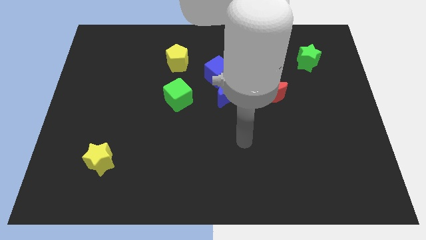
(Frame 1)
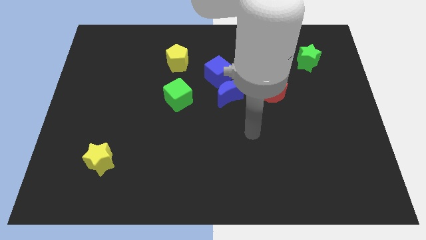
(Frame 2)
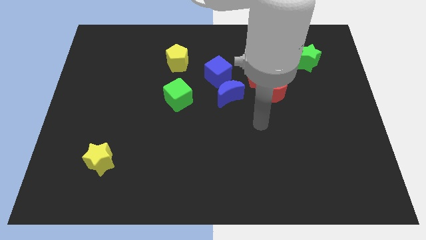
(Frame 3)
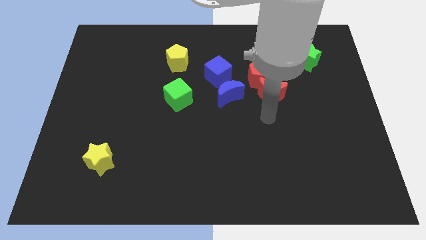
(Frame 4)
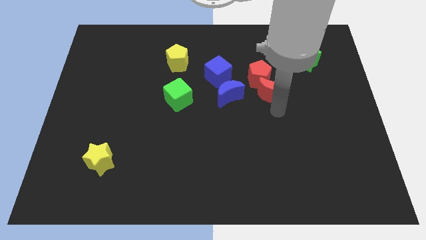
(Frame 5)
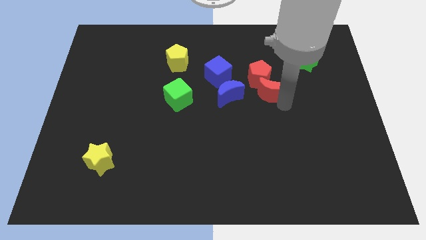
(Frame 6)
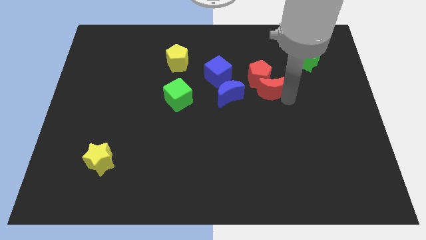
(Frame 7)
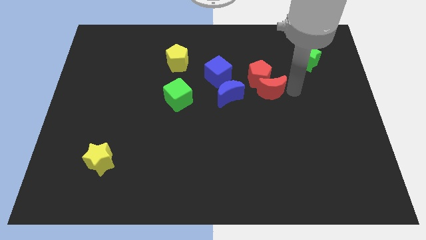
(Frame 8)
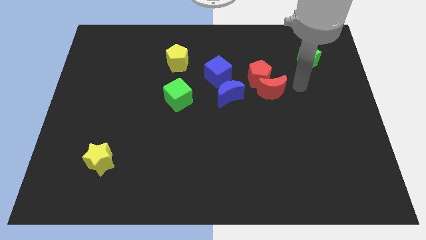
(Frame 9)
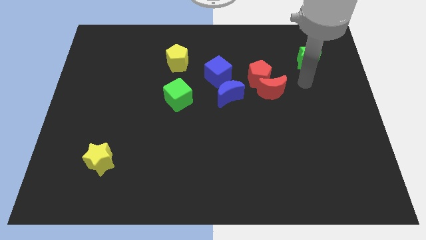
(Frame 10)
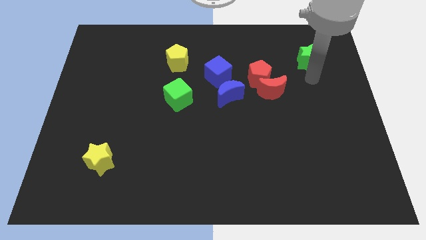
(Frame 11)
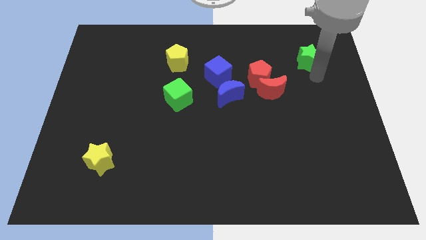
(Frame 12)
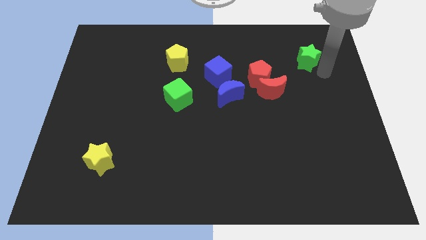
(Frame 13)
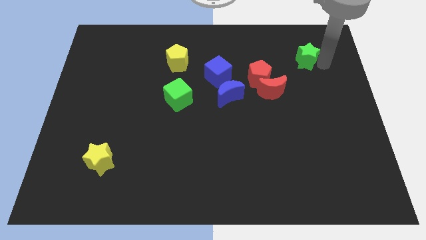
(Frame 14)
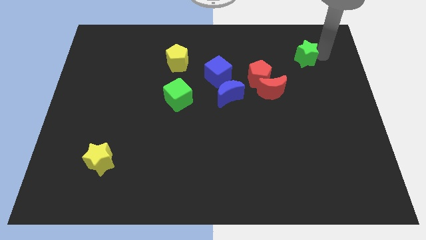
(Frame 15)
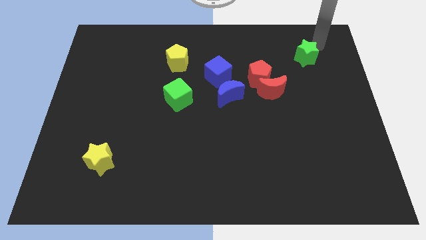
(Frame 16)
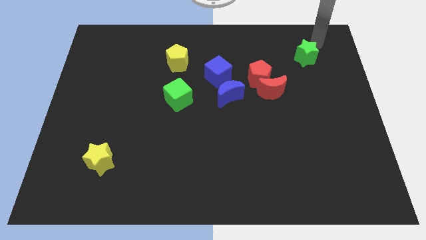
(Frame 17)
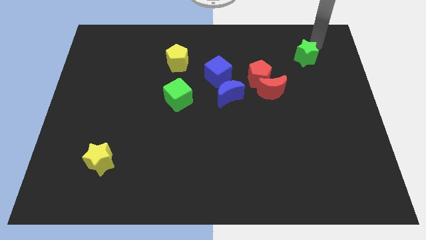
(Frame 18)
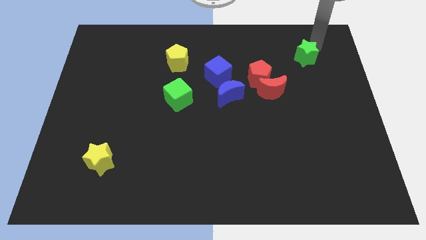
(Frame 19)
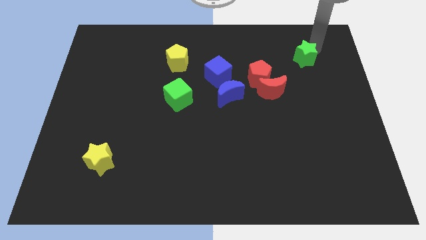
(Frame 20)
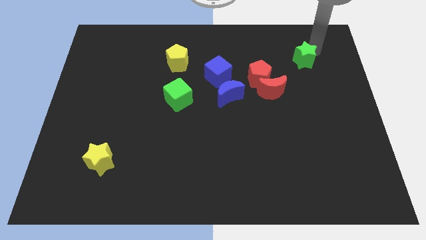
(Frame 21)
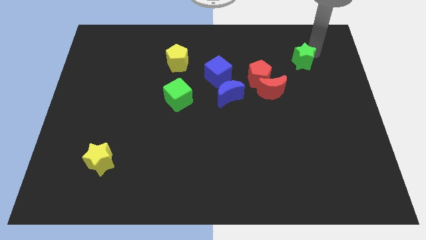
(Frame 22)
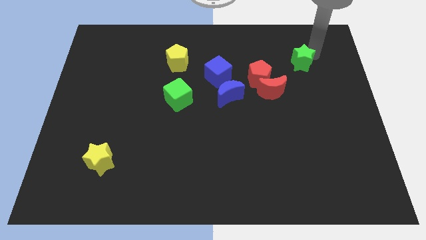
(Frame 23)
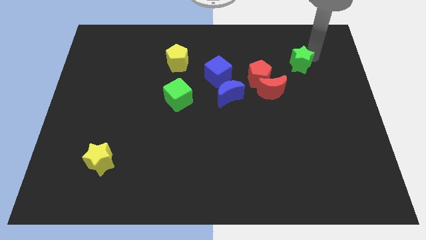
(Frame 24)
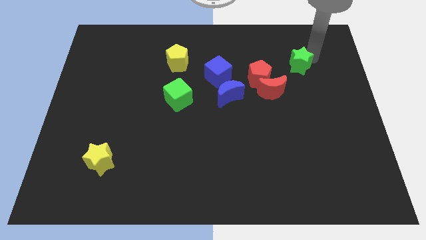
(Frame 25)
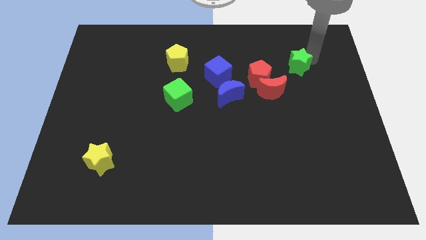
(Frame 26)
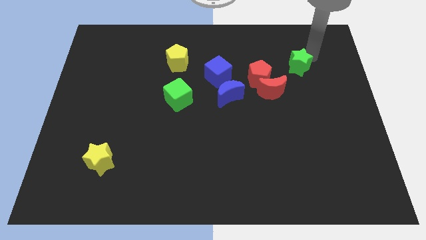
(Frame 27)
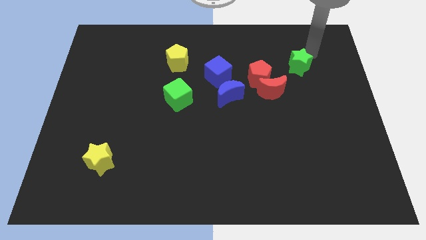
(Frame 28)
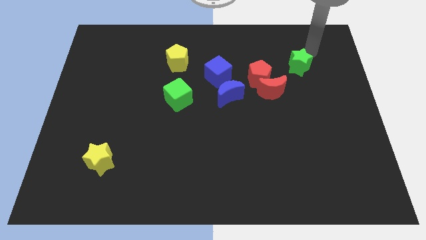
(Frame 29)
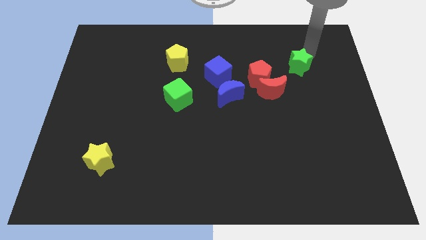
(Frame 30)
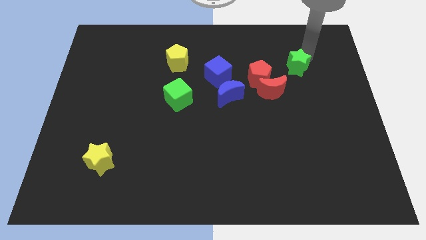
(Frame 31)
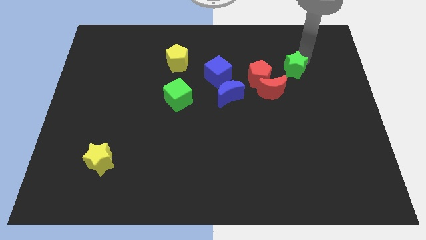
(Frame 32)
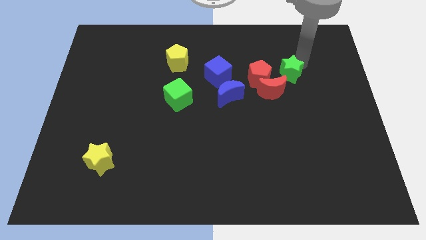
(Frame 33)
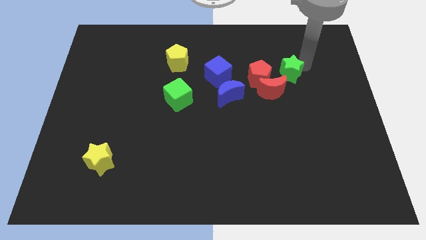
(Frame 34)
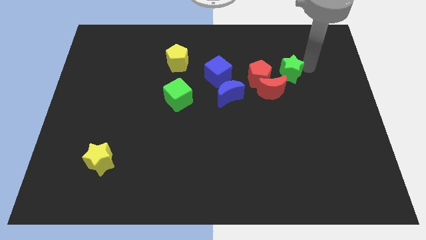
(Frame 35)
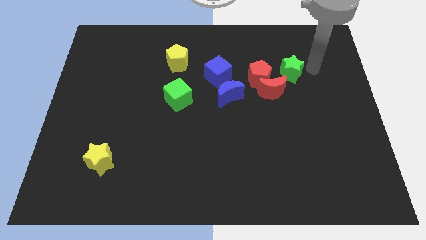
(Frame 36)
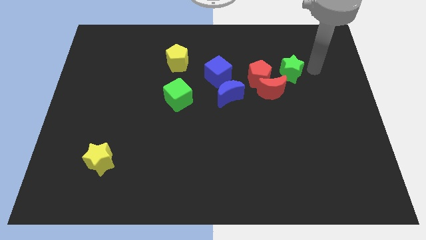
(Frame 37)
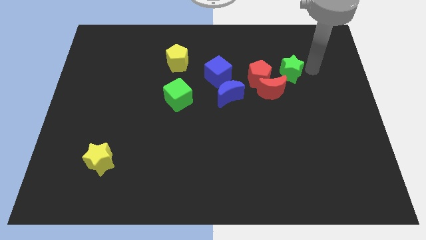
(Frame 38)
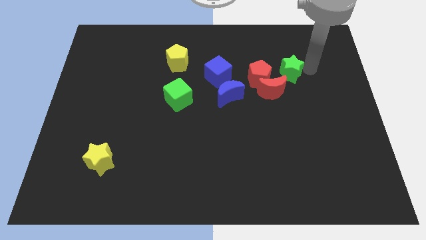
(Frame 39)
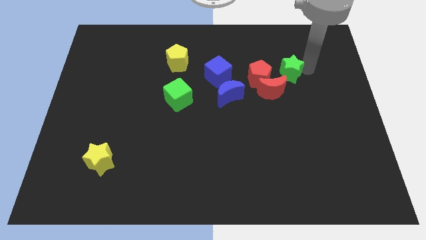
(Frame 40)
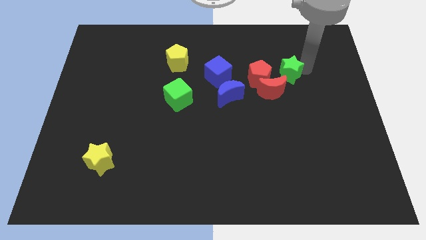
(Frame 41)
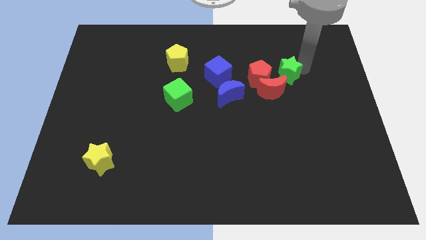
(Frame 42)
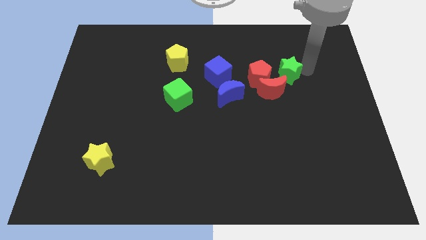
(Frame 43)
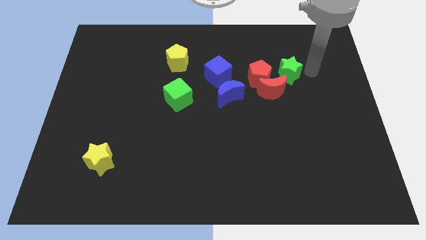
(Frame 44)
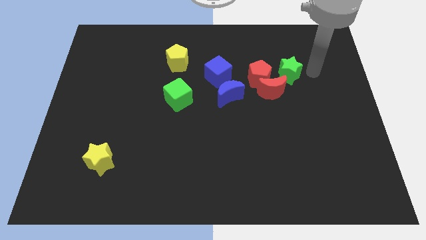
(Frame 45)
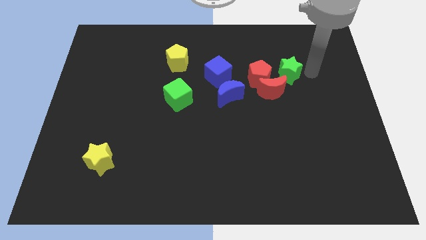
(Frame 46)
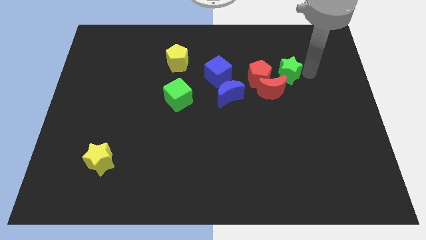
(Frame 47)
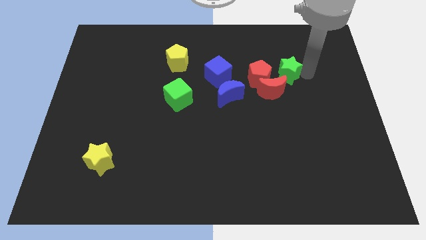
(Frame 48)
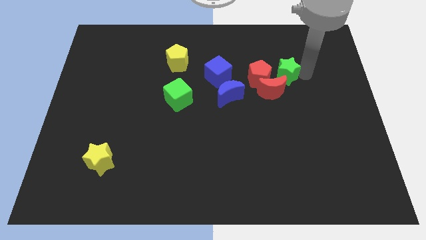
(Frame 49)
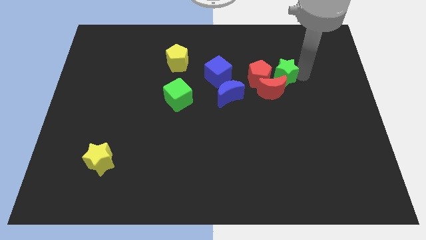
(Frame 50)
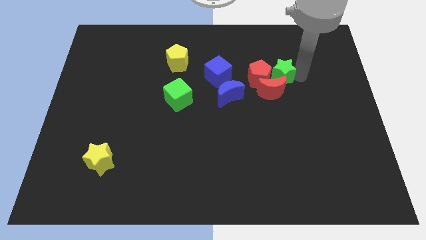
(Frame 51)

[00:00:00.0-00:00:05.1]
push the green star towards the red pentagon

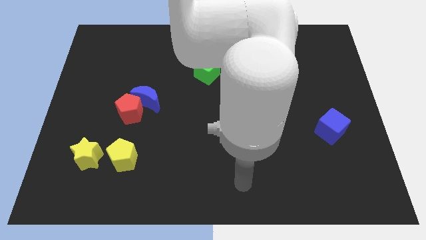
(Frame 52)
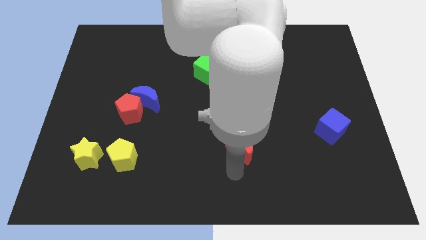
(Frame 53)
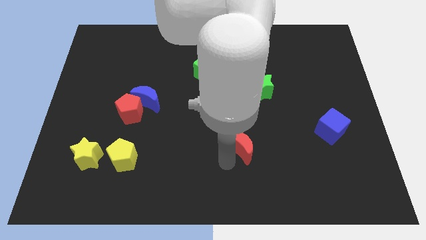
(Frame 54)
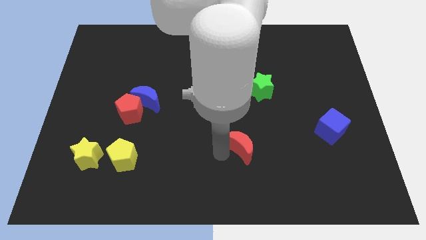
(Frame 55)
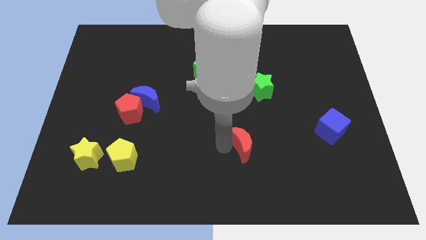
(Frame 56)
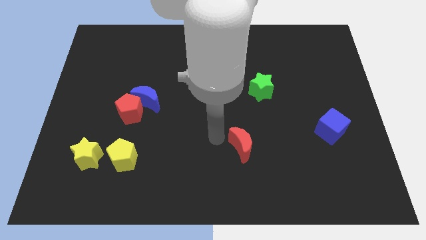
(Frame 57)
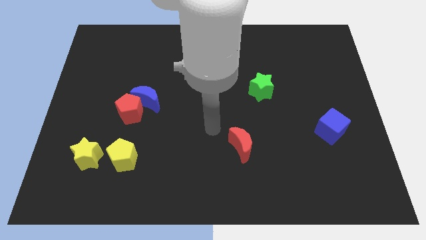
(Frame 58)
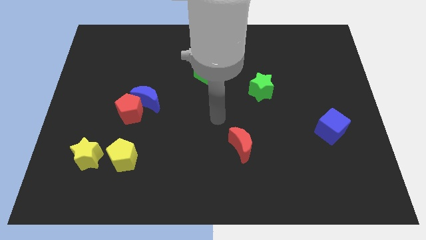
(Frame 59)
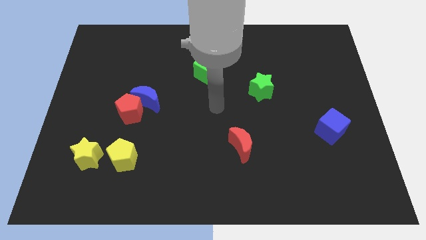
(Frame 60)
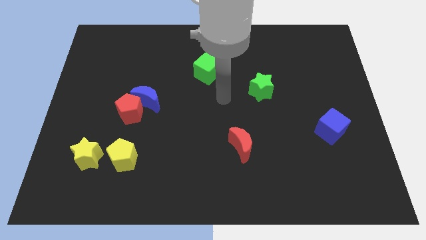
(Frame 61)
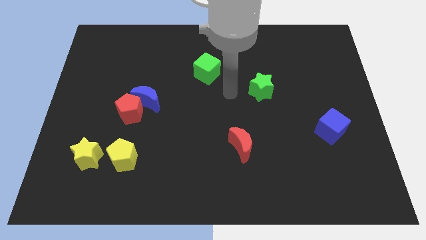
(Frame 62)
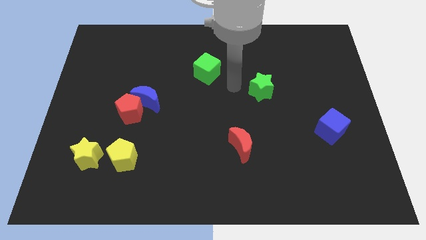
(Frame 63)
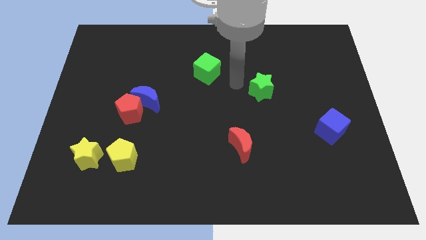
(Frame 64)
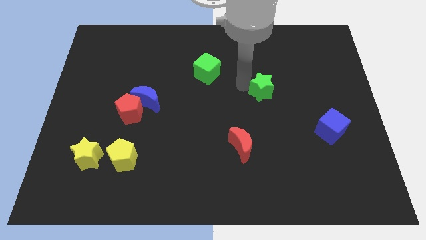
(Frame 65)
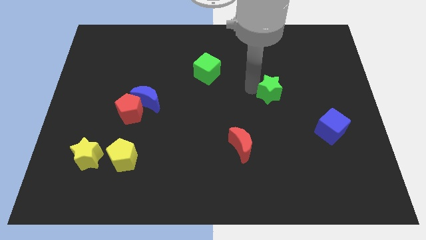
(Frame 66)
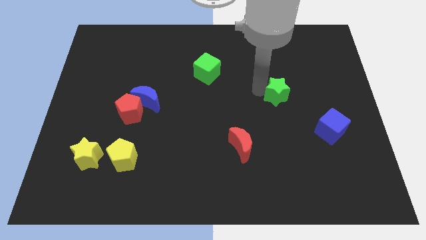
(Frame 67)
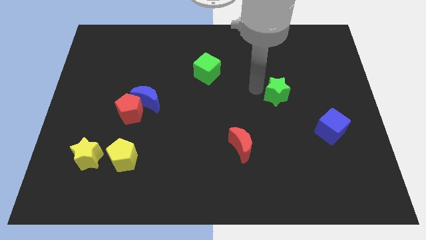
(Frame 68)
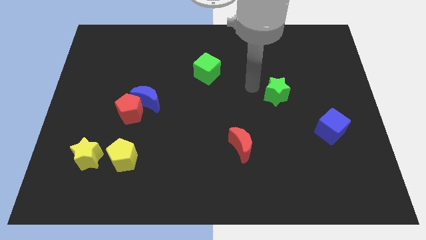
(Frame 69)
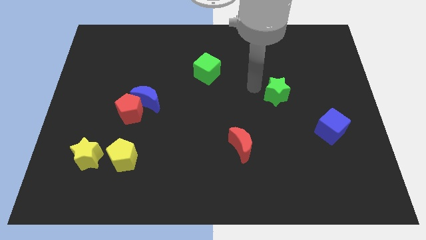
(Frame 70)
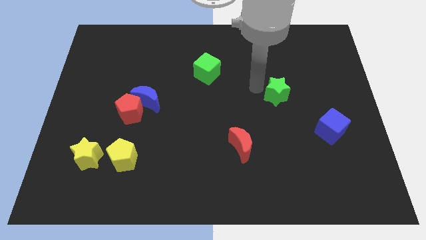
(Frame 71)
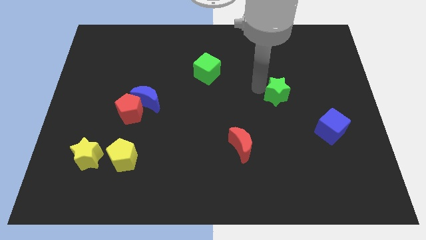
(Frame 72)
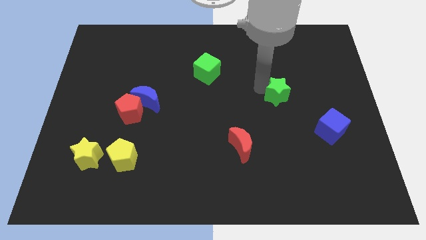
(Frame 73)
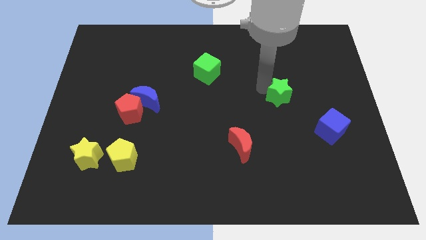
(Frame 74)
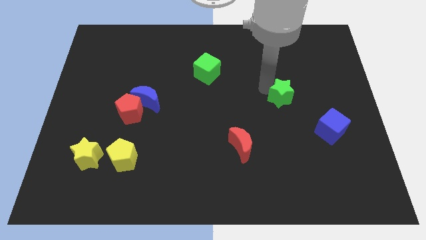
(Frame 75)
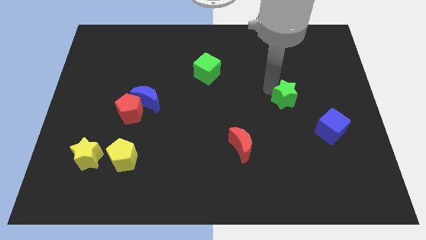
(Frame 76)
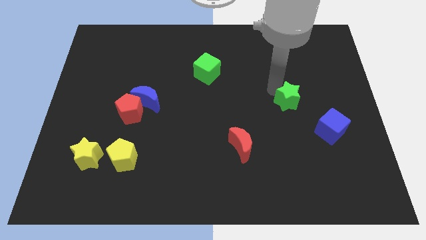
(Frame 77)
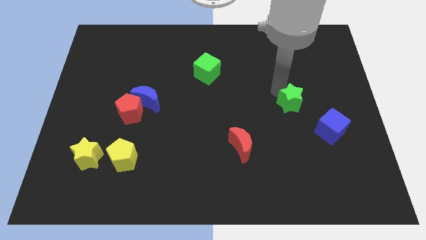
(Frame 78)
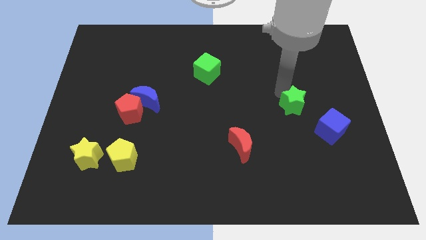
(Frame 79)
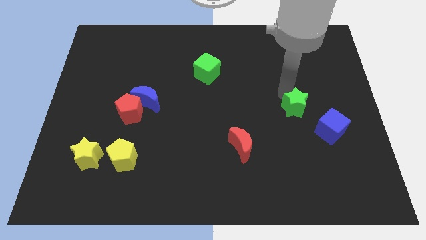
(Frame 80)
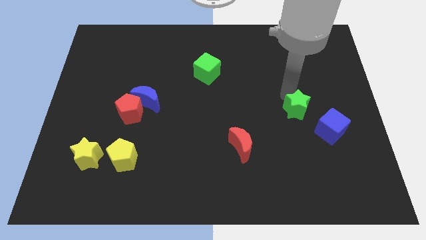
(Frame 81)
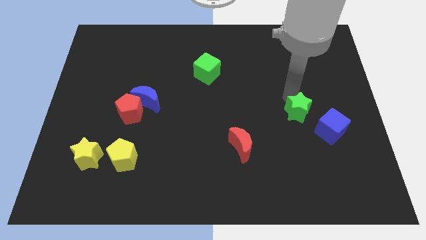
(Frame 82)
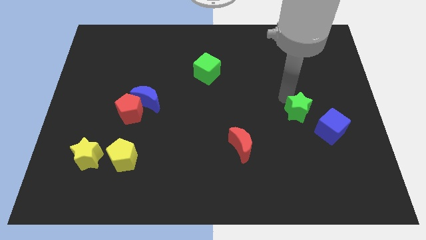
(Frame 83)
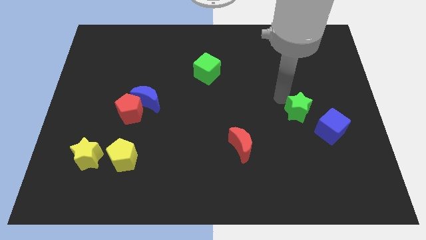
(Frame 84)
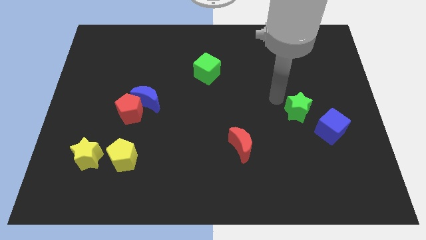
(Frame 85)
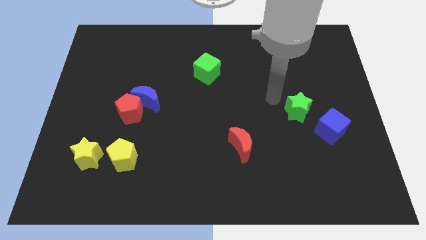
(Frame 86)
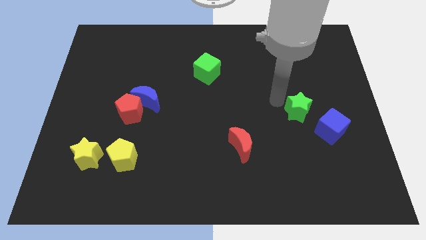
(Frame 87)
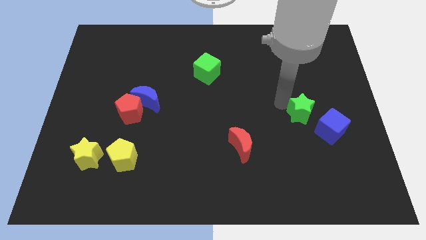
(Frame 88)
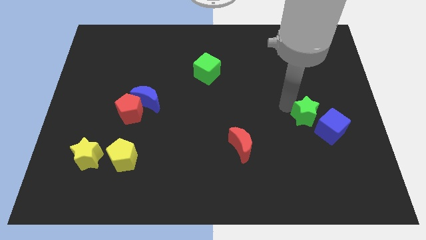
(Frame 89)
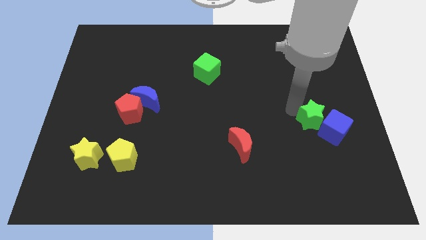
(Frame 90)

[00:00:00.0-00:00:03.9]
slide the green star next to the blue cube
